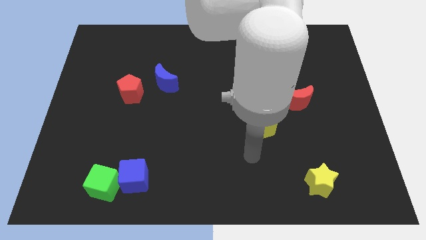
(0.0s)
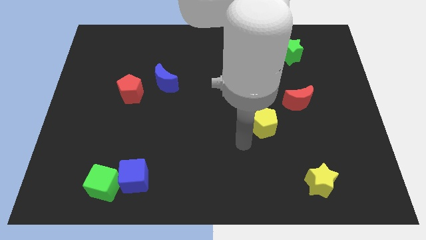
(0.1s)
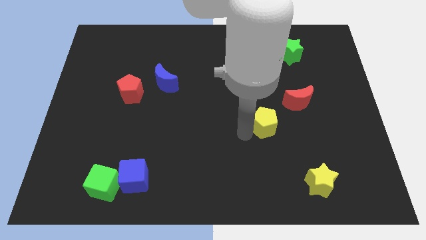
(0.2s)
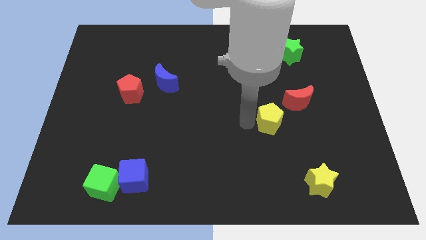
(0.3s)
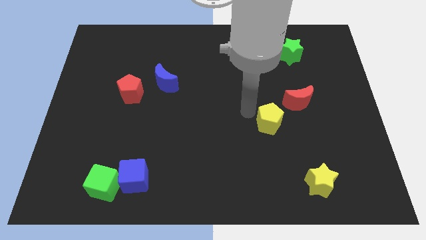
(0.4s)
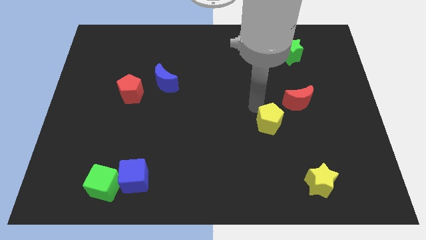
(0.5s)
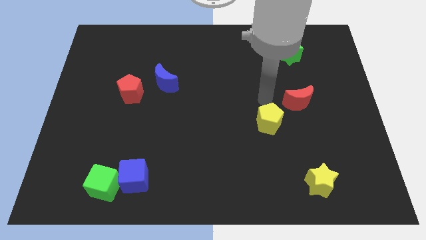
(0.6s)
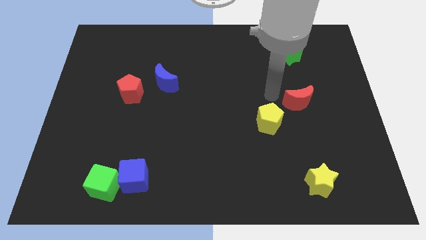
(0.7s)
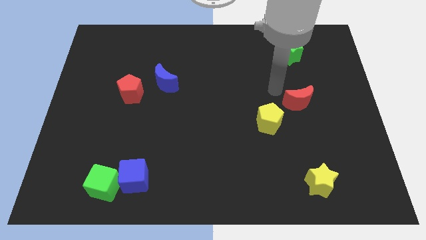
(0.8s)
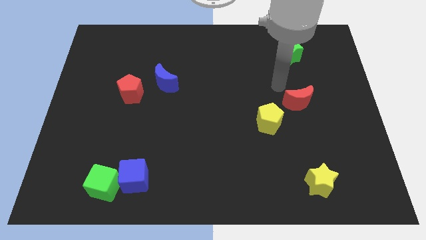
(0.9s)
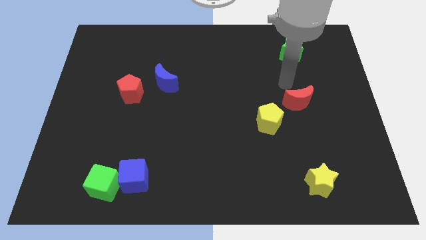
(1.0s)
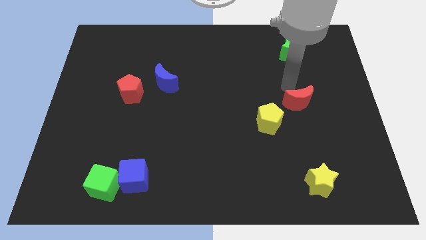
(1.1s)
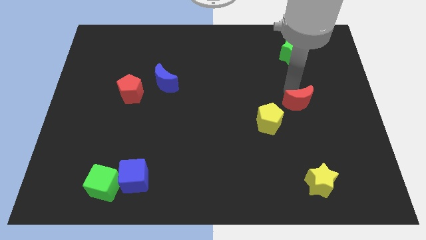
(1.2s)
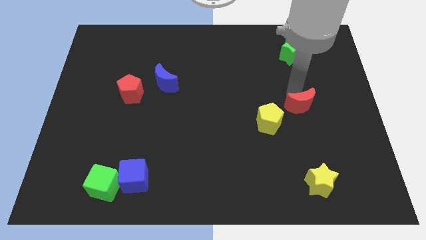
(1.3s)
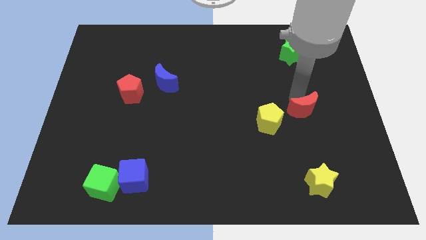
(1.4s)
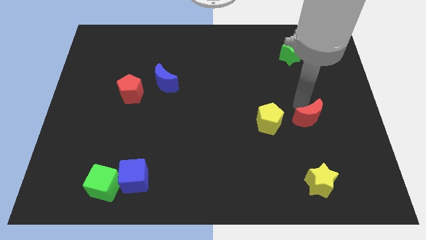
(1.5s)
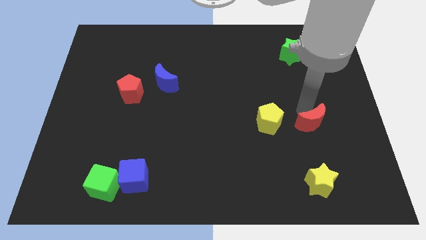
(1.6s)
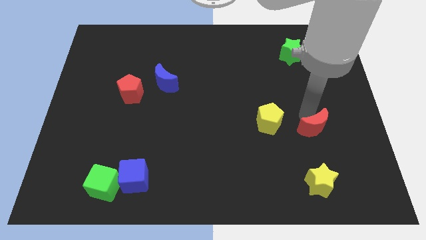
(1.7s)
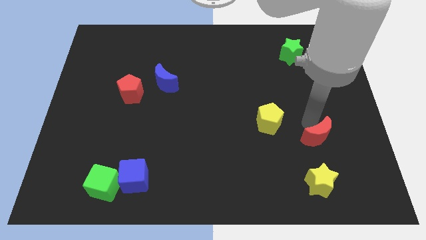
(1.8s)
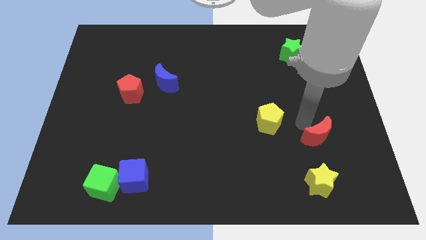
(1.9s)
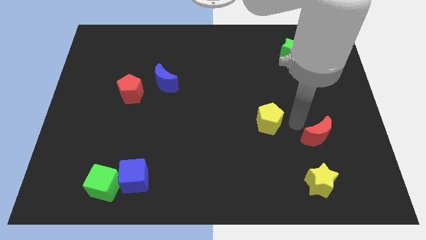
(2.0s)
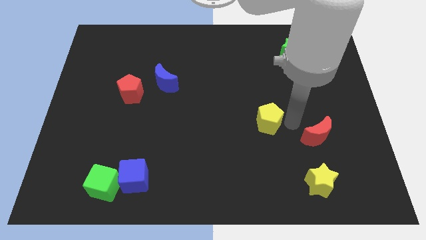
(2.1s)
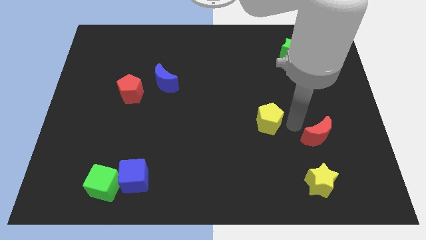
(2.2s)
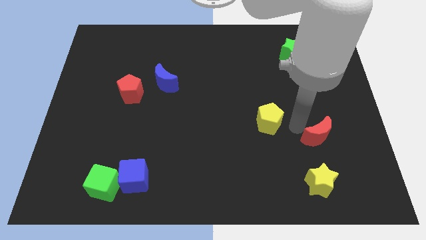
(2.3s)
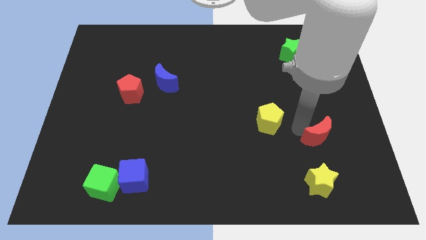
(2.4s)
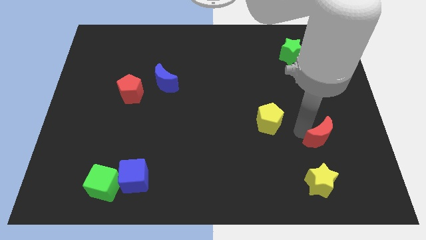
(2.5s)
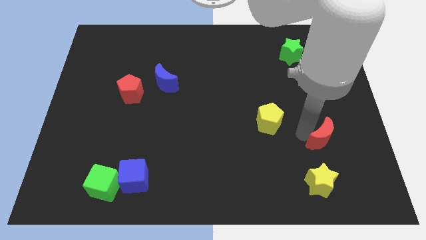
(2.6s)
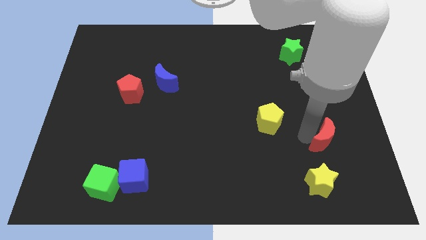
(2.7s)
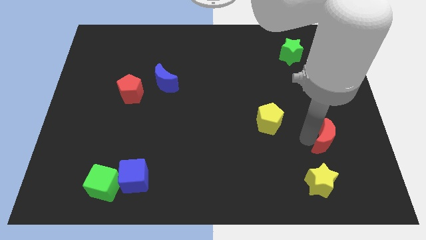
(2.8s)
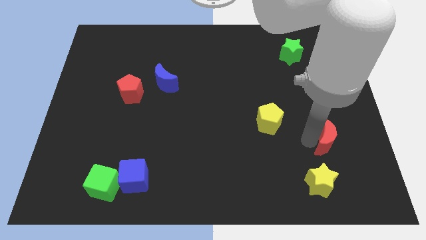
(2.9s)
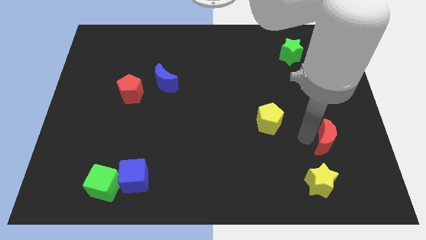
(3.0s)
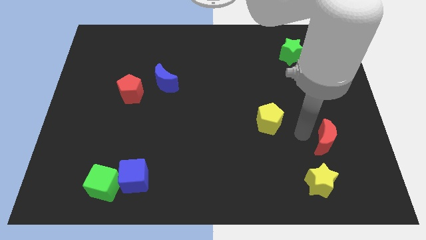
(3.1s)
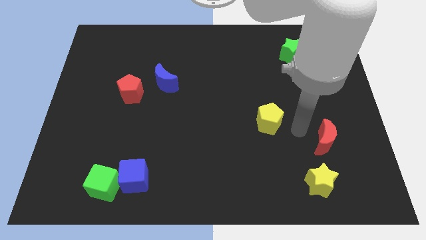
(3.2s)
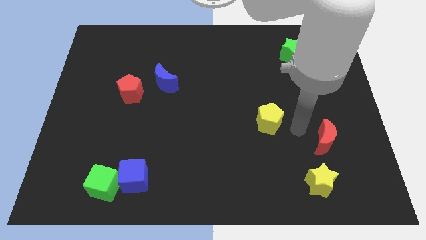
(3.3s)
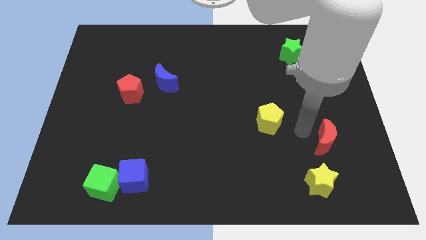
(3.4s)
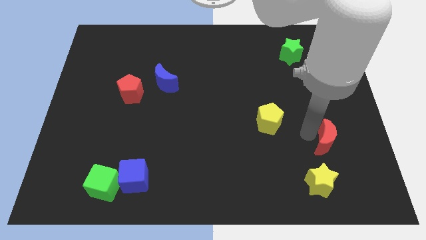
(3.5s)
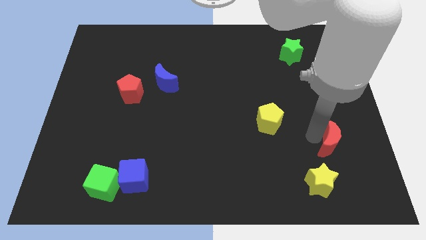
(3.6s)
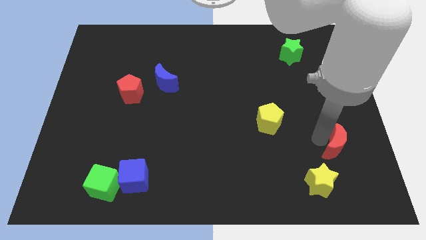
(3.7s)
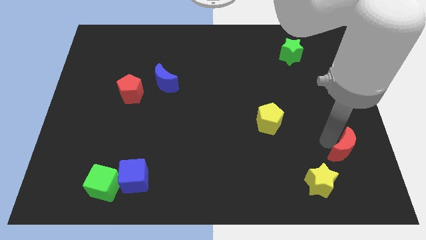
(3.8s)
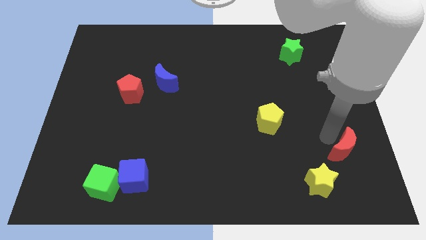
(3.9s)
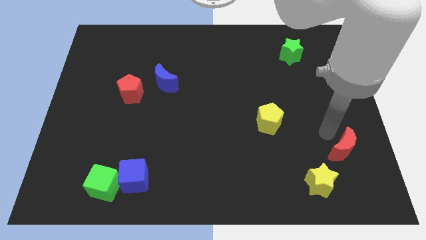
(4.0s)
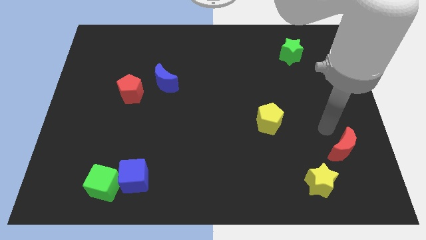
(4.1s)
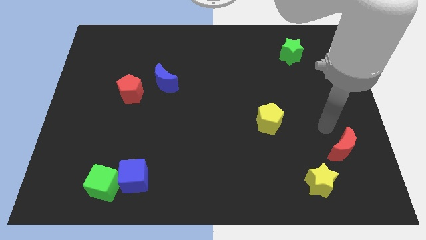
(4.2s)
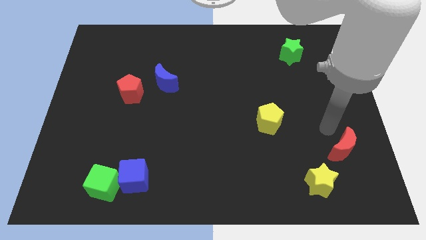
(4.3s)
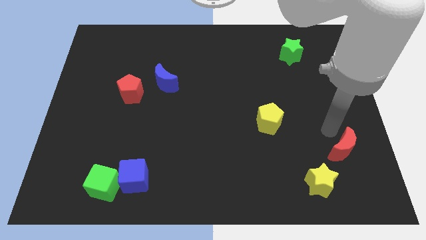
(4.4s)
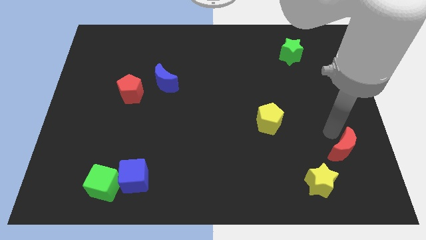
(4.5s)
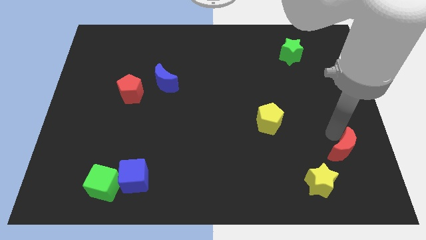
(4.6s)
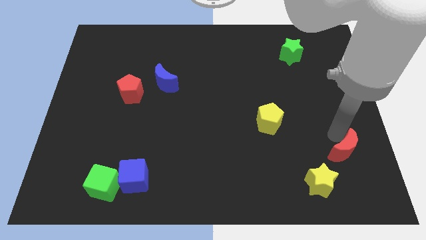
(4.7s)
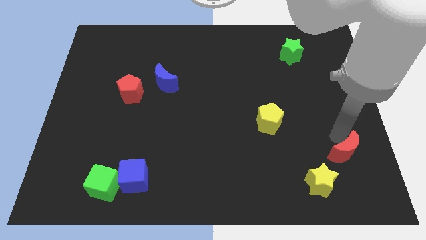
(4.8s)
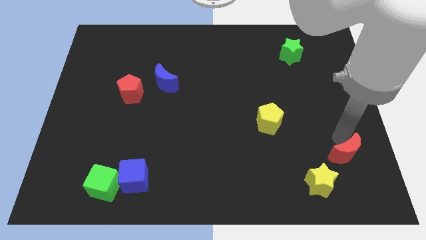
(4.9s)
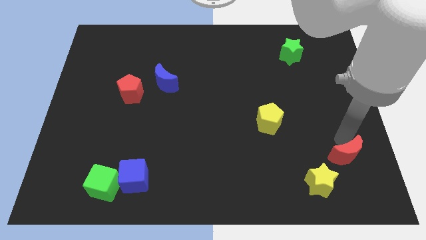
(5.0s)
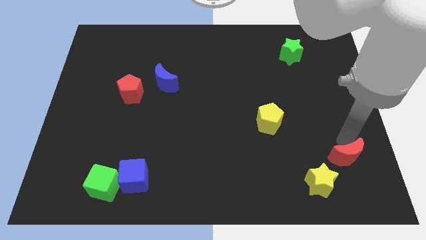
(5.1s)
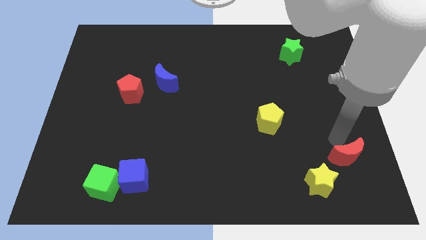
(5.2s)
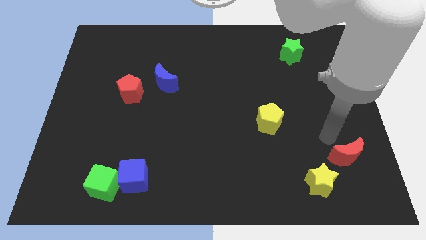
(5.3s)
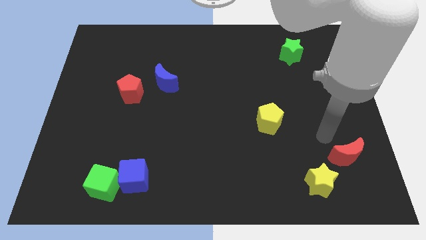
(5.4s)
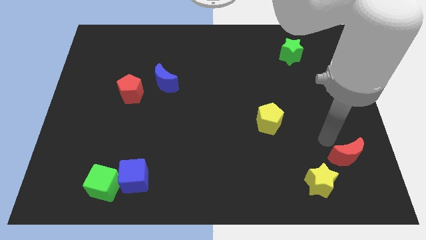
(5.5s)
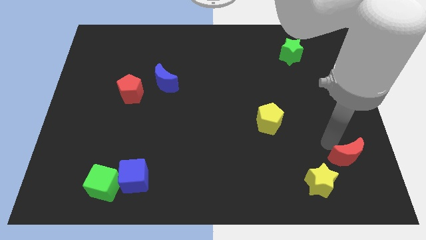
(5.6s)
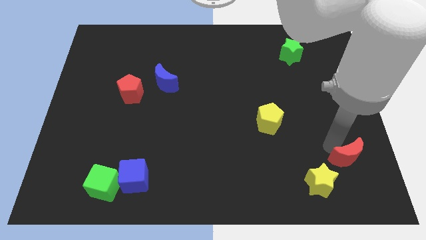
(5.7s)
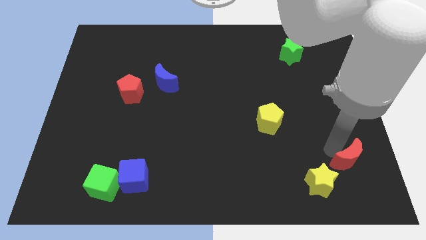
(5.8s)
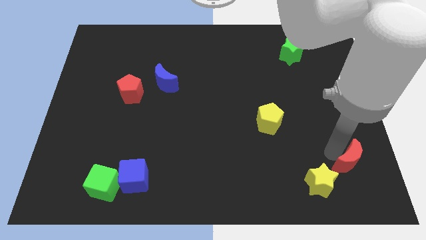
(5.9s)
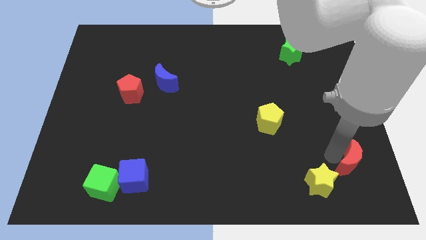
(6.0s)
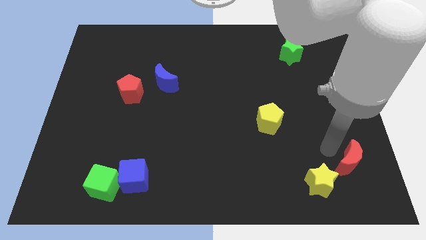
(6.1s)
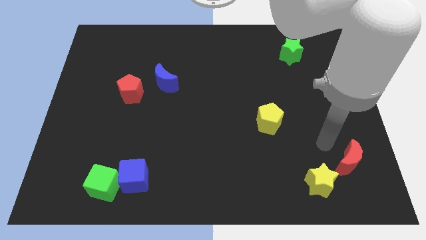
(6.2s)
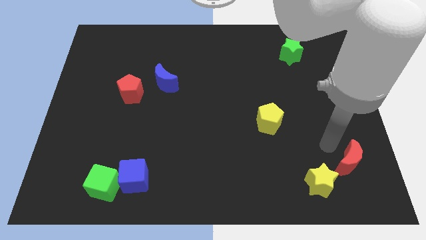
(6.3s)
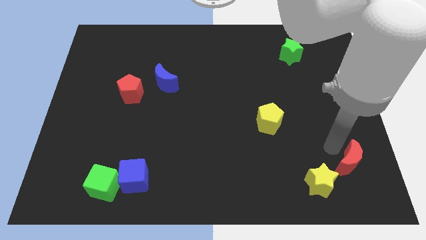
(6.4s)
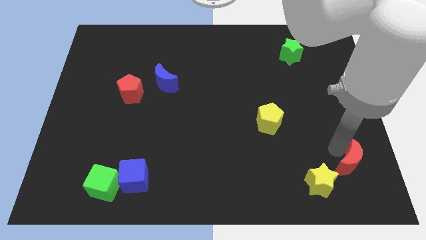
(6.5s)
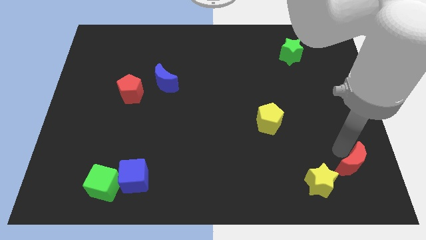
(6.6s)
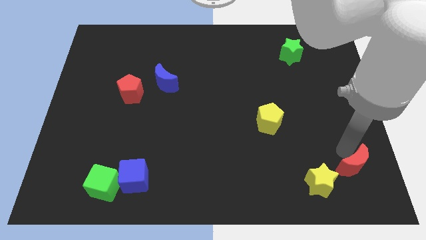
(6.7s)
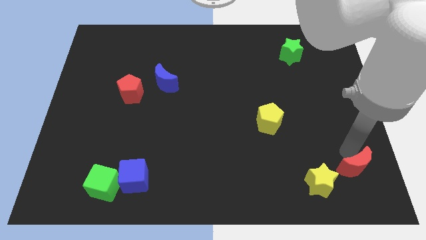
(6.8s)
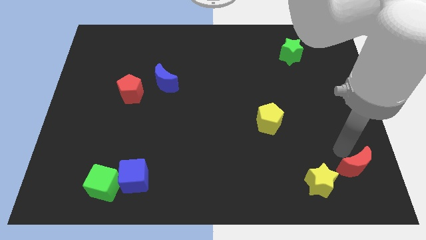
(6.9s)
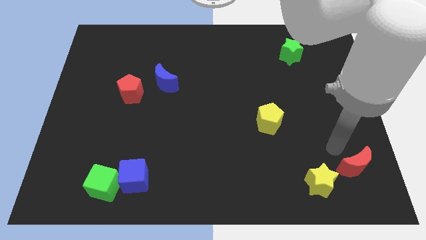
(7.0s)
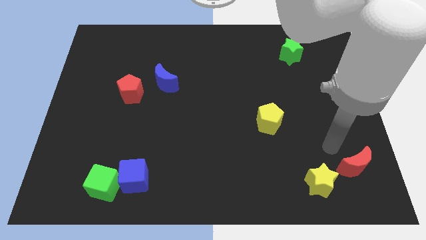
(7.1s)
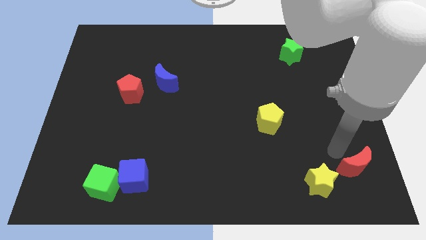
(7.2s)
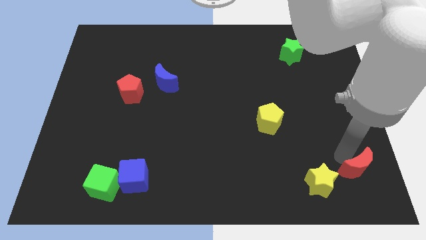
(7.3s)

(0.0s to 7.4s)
move the red moon to the bottom right of the board
